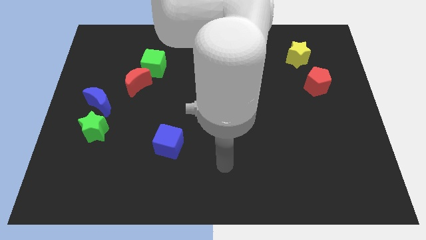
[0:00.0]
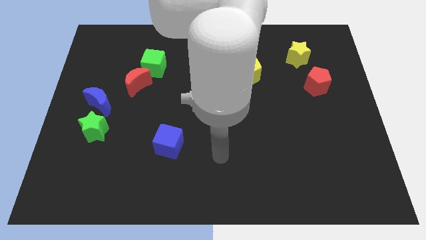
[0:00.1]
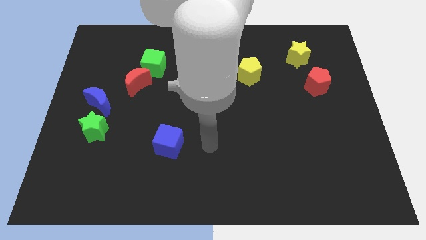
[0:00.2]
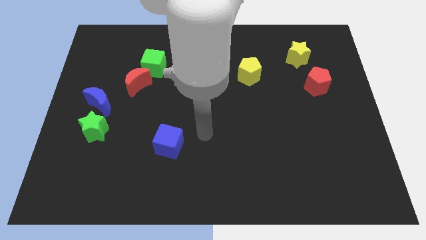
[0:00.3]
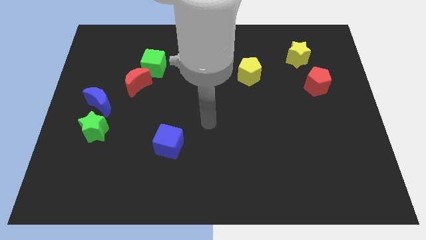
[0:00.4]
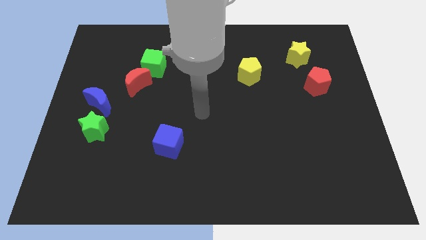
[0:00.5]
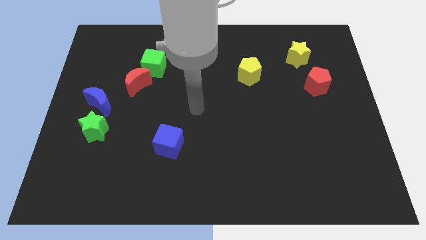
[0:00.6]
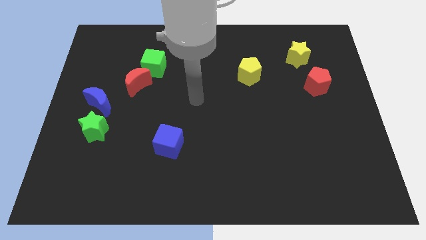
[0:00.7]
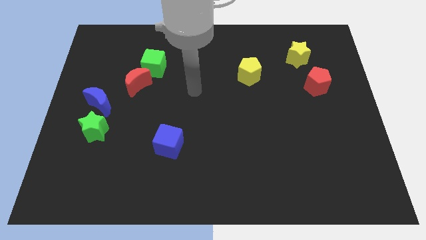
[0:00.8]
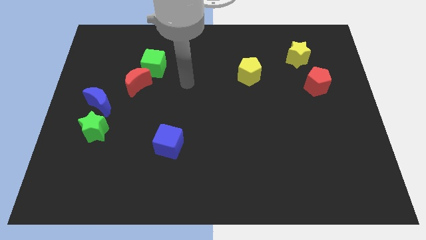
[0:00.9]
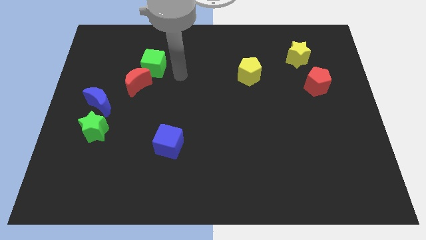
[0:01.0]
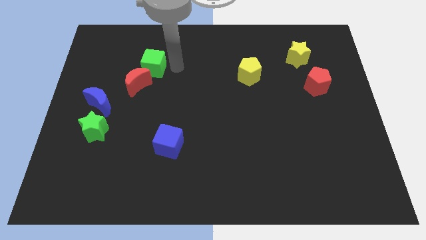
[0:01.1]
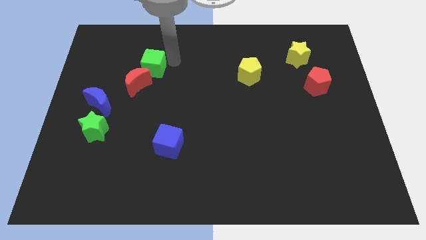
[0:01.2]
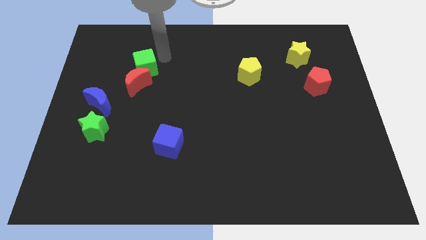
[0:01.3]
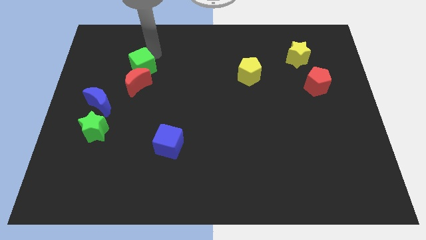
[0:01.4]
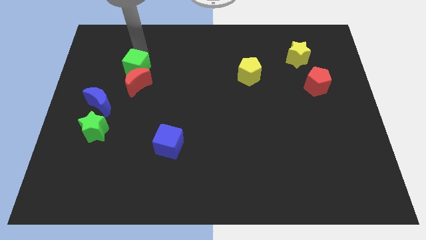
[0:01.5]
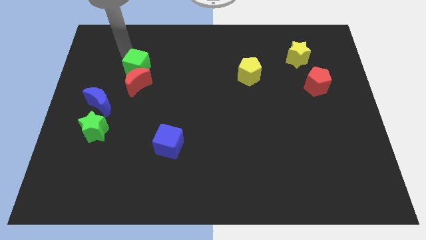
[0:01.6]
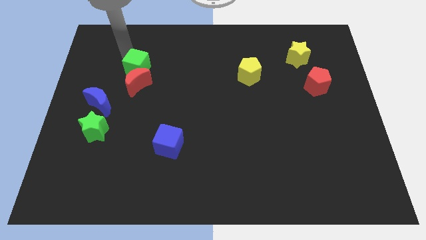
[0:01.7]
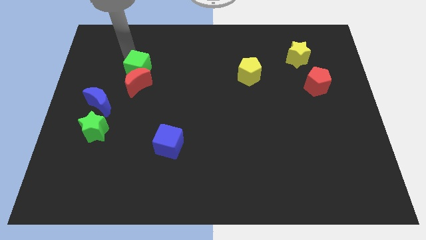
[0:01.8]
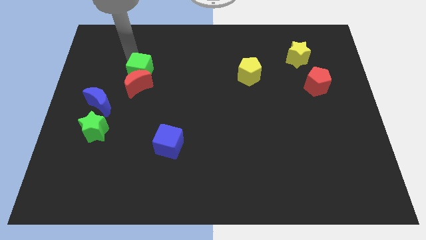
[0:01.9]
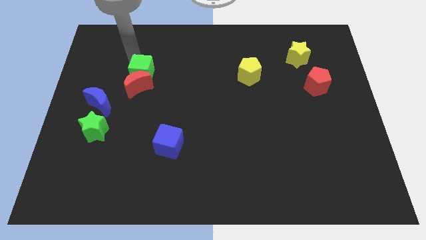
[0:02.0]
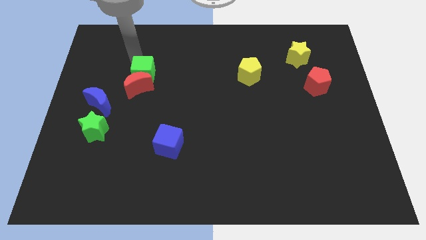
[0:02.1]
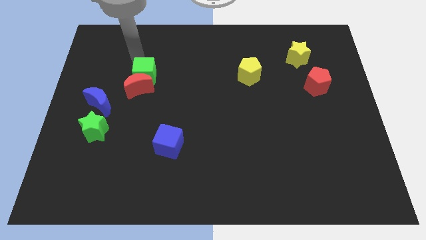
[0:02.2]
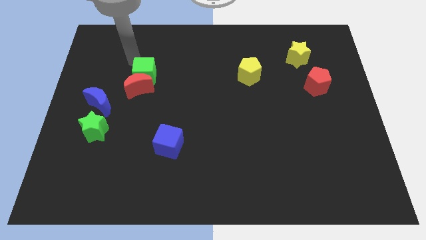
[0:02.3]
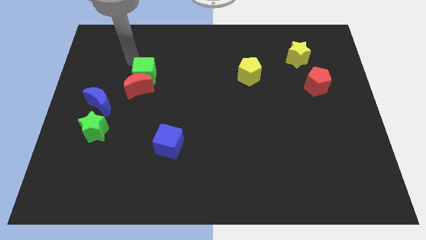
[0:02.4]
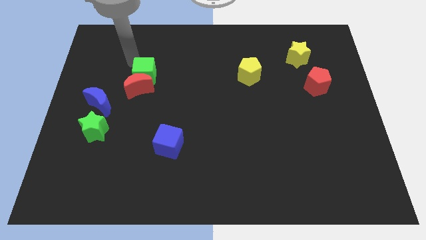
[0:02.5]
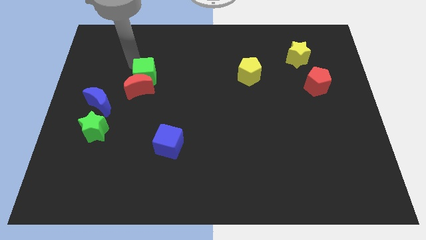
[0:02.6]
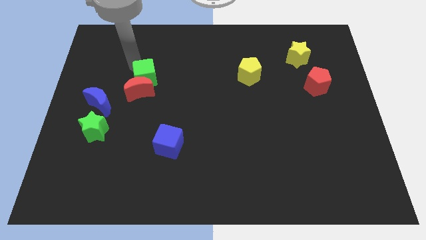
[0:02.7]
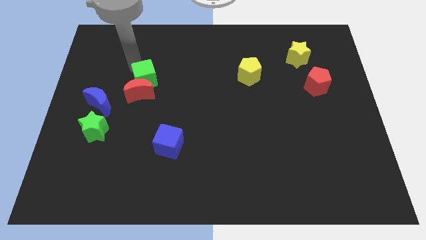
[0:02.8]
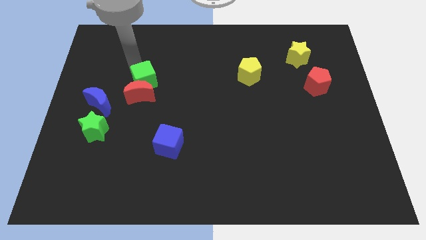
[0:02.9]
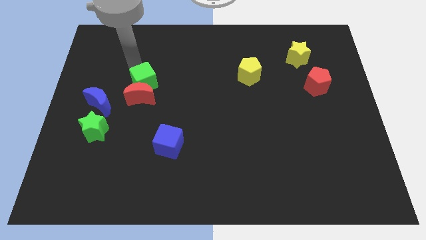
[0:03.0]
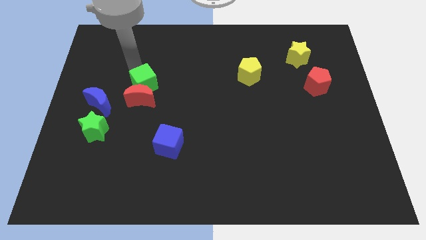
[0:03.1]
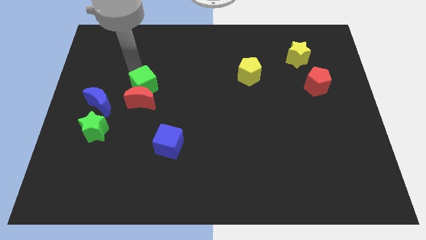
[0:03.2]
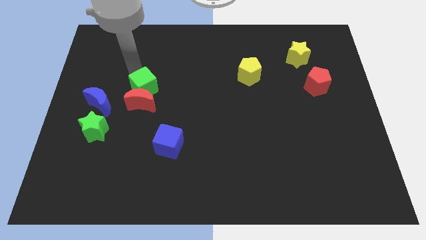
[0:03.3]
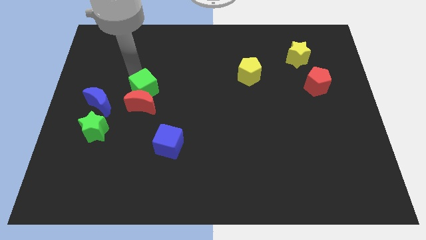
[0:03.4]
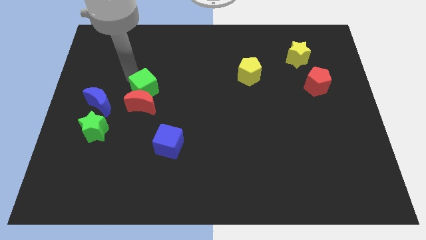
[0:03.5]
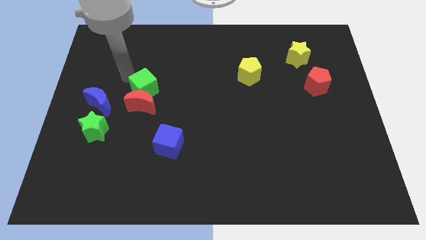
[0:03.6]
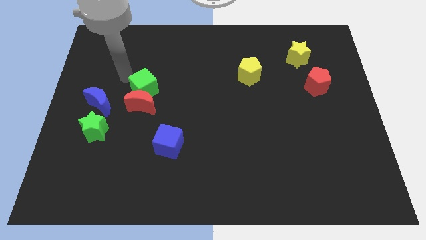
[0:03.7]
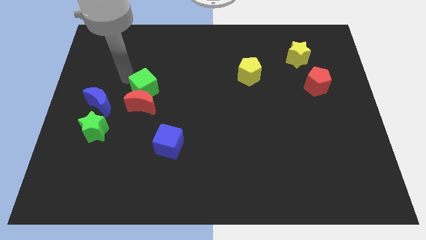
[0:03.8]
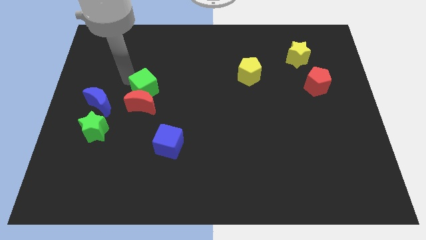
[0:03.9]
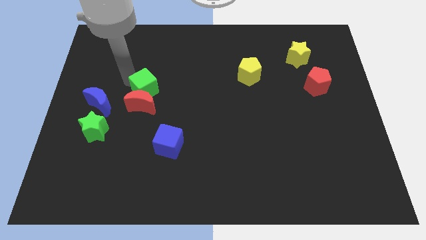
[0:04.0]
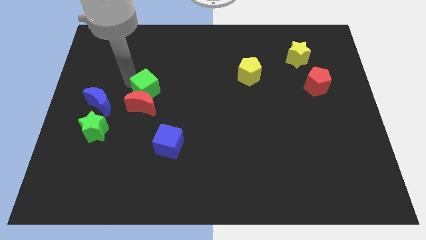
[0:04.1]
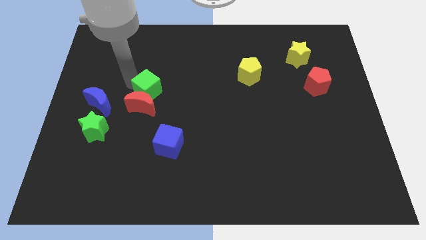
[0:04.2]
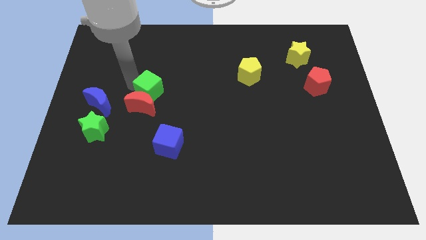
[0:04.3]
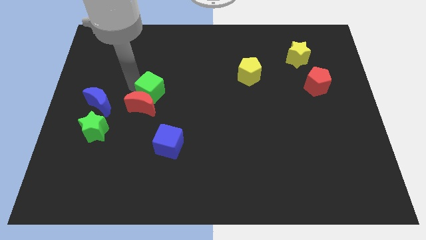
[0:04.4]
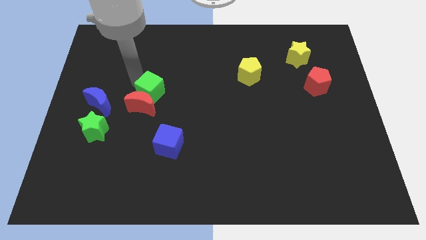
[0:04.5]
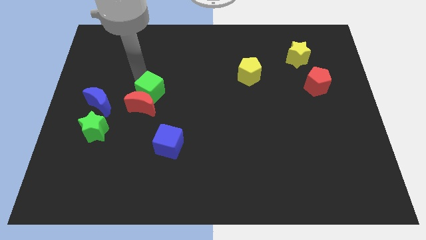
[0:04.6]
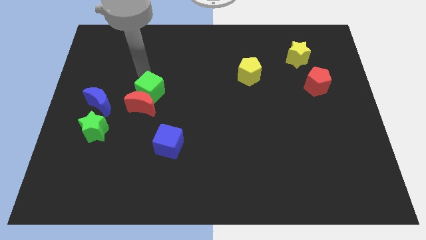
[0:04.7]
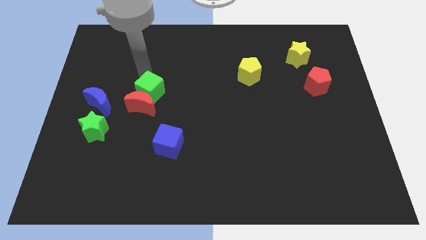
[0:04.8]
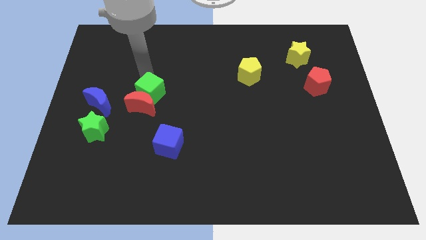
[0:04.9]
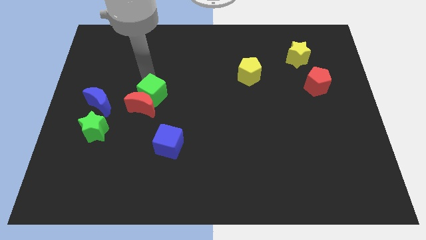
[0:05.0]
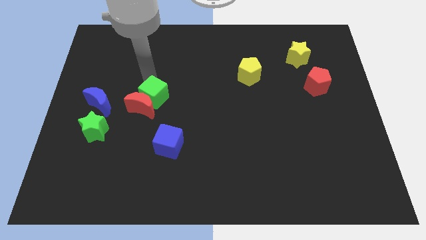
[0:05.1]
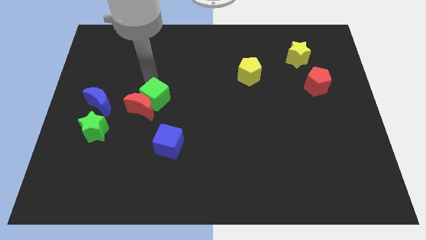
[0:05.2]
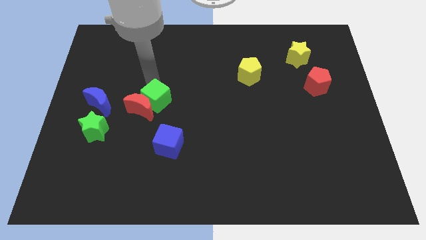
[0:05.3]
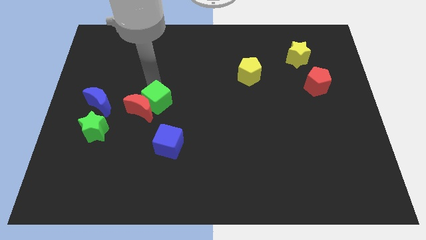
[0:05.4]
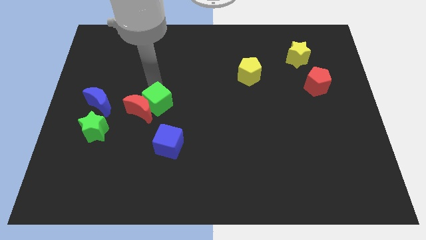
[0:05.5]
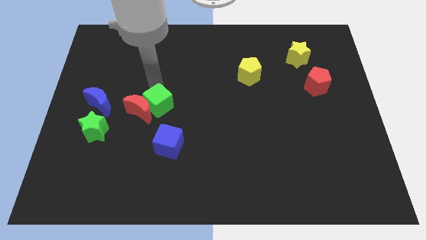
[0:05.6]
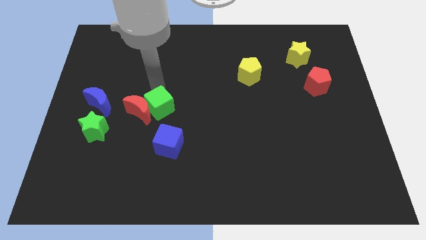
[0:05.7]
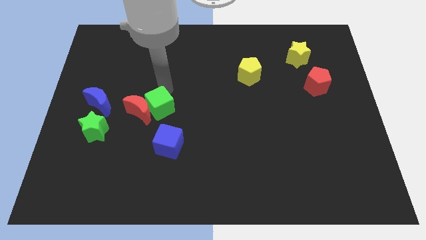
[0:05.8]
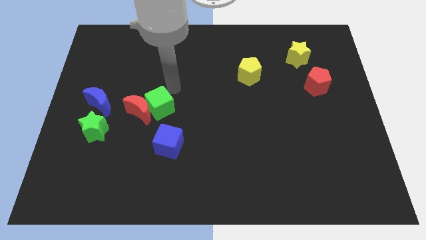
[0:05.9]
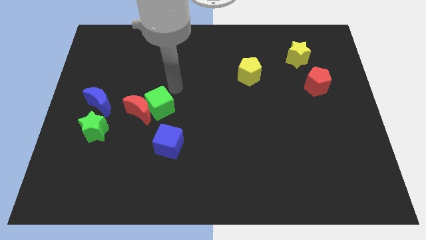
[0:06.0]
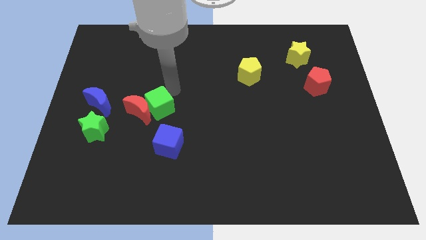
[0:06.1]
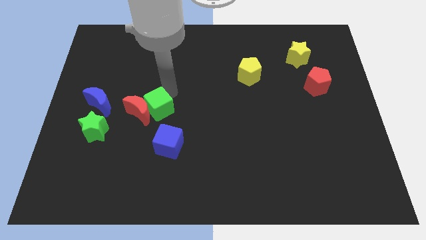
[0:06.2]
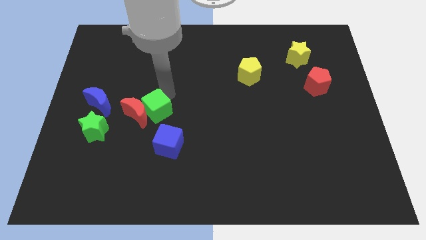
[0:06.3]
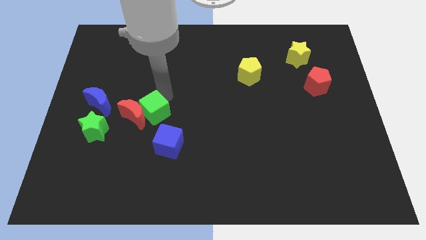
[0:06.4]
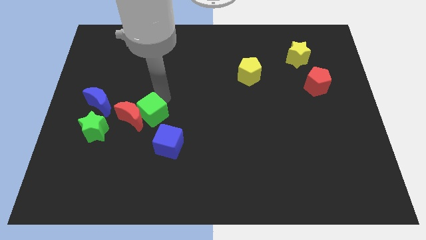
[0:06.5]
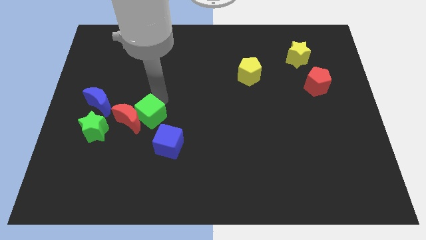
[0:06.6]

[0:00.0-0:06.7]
move the green cube to the right side of the green star

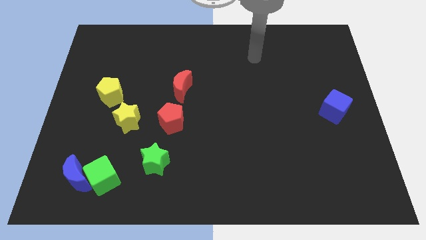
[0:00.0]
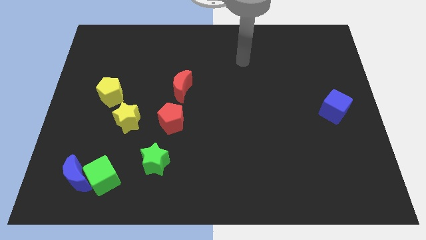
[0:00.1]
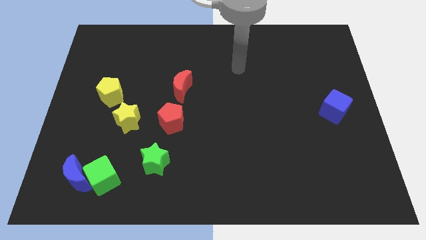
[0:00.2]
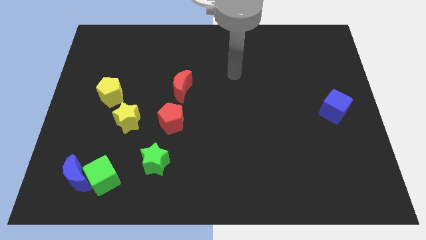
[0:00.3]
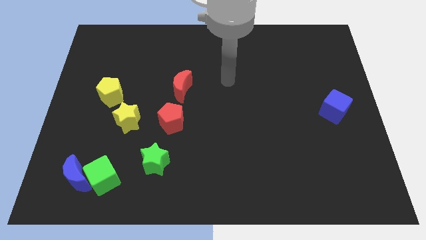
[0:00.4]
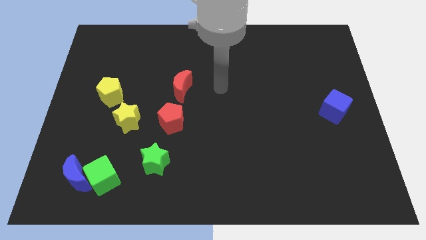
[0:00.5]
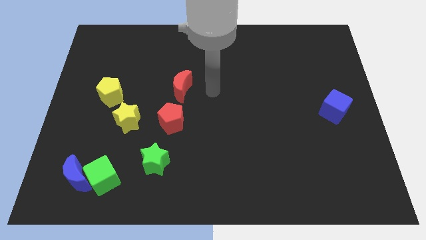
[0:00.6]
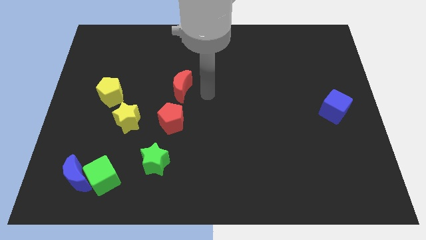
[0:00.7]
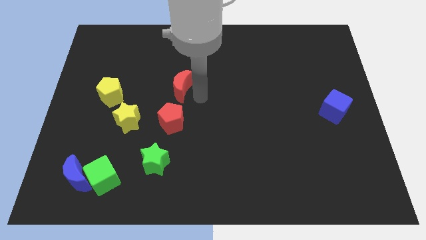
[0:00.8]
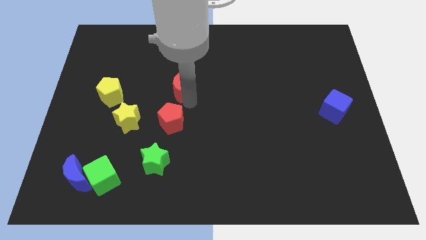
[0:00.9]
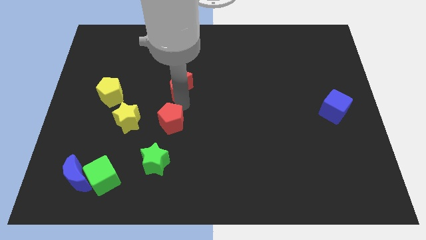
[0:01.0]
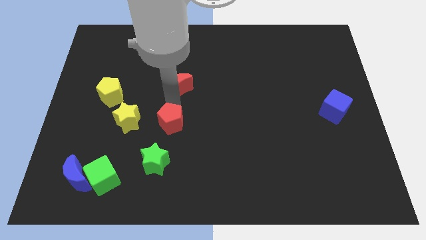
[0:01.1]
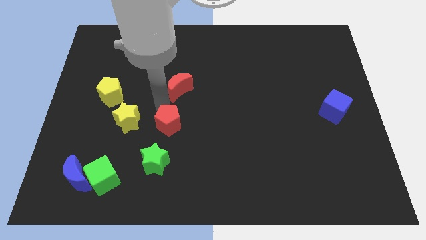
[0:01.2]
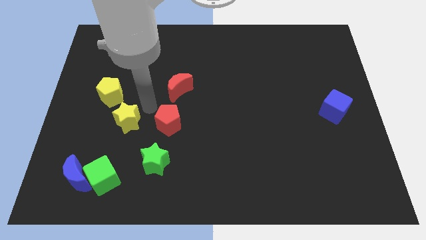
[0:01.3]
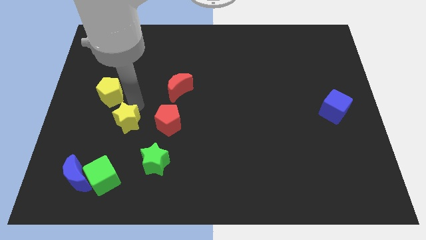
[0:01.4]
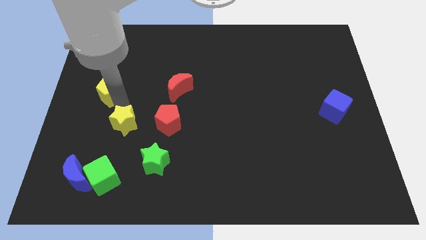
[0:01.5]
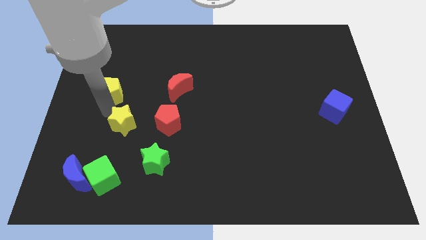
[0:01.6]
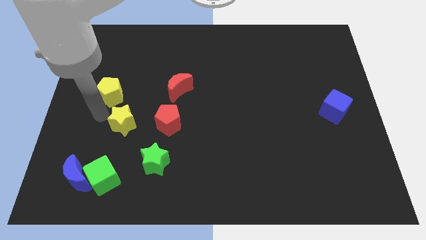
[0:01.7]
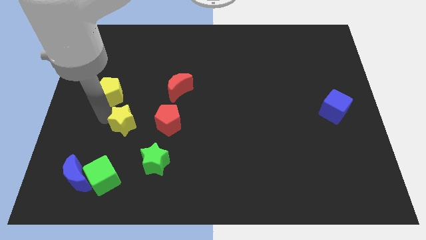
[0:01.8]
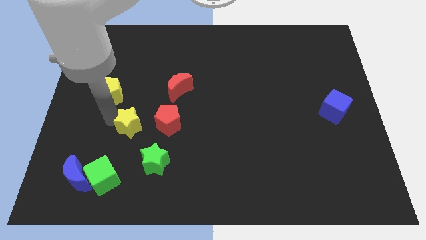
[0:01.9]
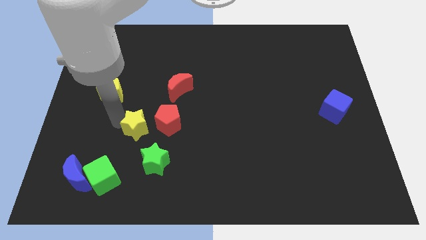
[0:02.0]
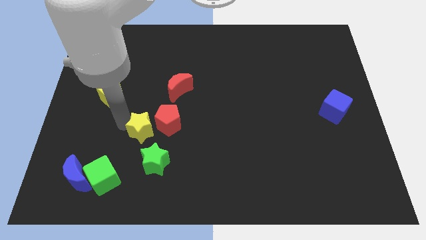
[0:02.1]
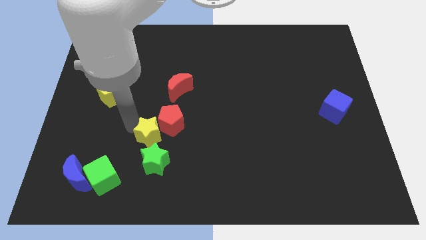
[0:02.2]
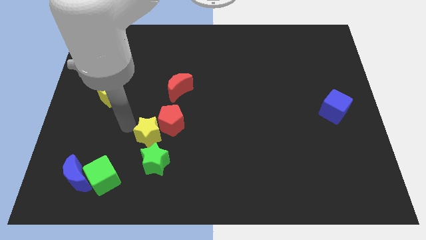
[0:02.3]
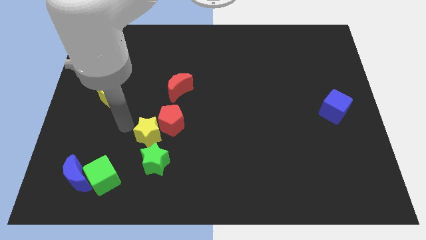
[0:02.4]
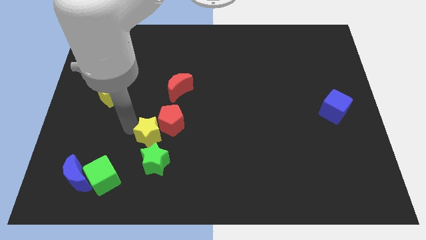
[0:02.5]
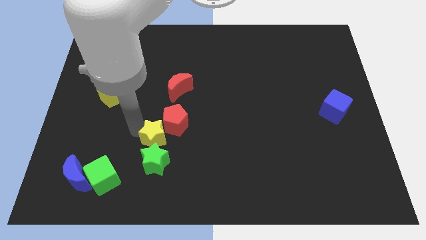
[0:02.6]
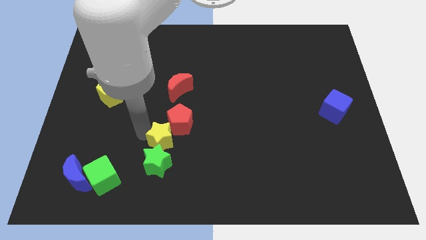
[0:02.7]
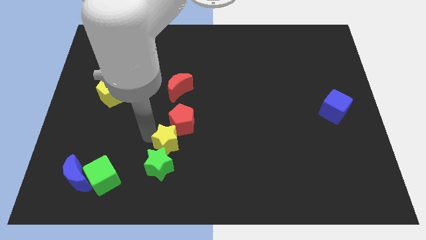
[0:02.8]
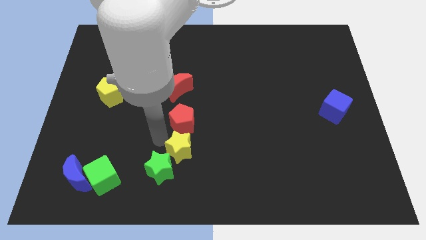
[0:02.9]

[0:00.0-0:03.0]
slide the yellow star to the right side of the green star
